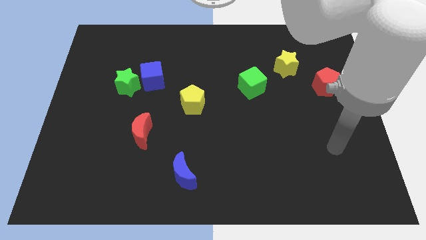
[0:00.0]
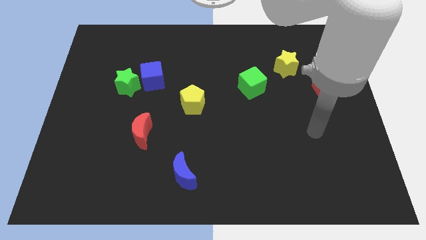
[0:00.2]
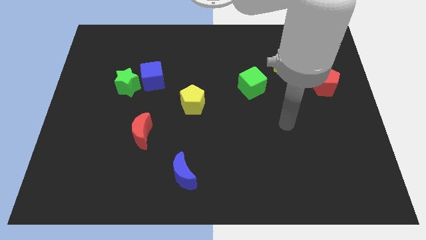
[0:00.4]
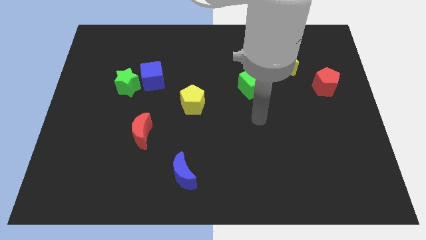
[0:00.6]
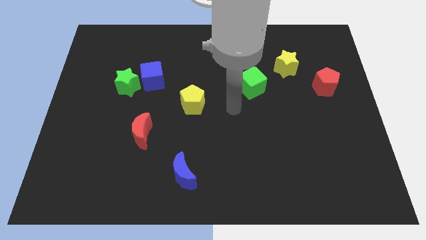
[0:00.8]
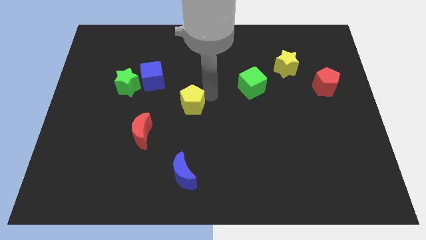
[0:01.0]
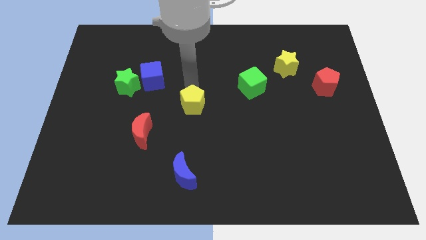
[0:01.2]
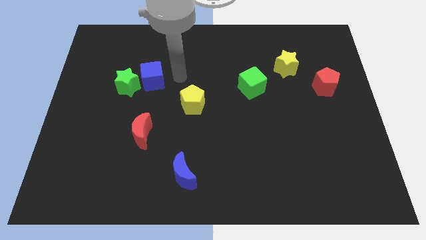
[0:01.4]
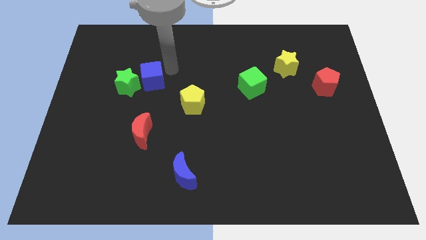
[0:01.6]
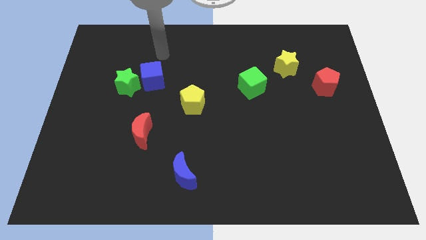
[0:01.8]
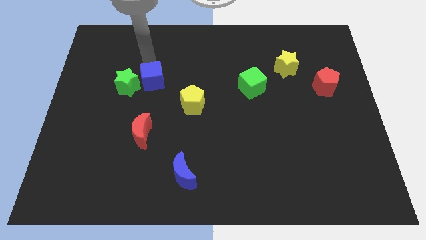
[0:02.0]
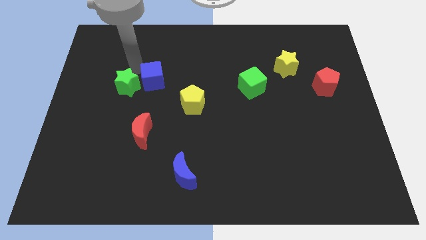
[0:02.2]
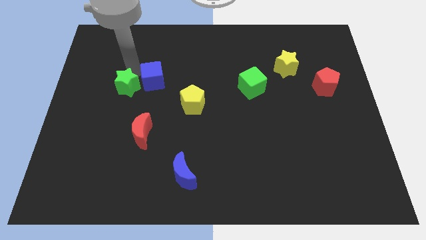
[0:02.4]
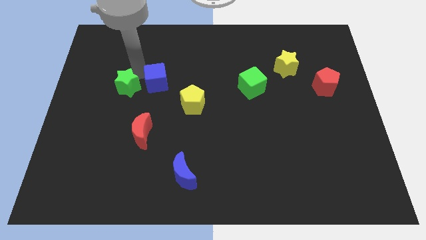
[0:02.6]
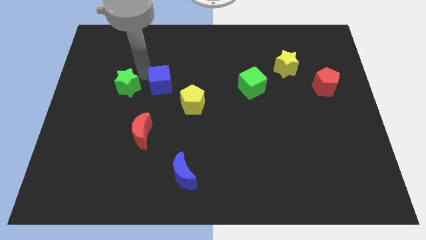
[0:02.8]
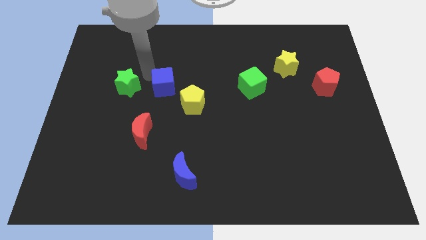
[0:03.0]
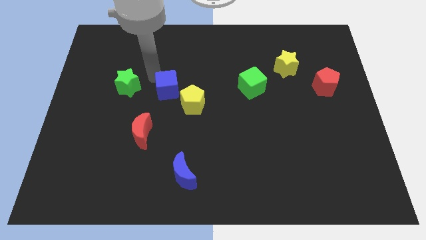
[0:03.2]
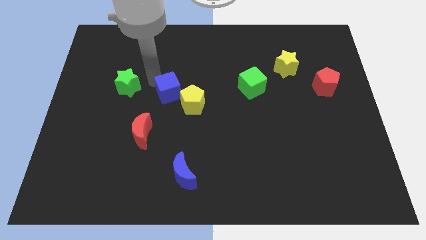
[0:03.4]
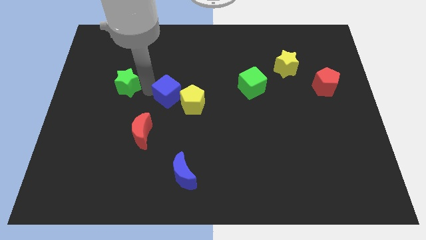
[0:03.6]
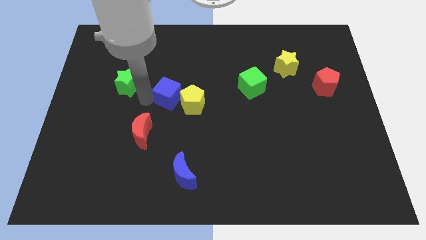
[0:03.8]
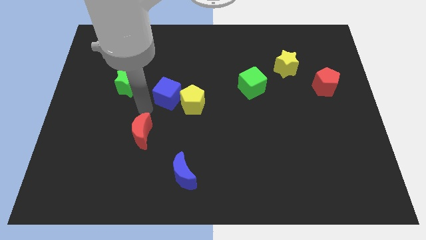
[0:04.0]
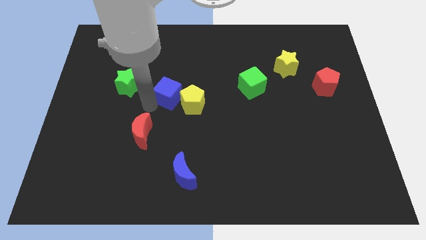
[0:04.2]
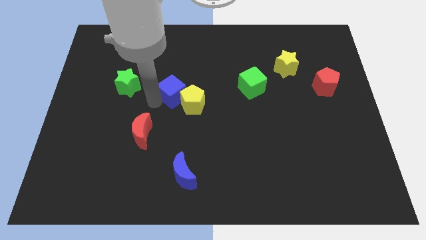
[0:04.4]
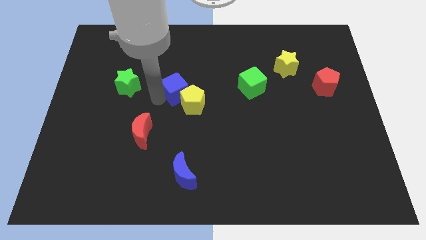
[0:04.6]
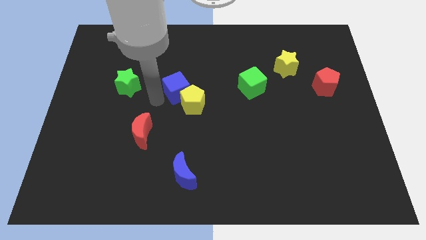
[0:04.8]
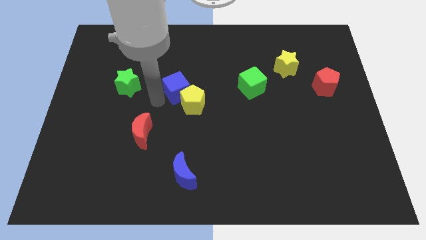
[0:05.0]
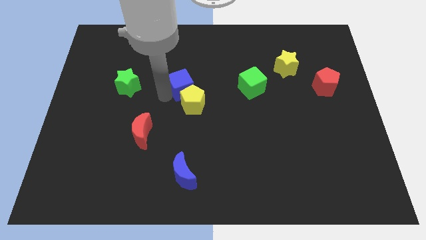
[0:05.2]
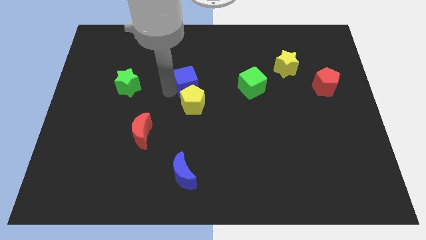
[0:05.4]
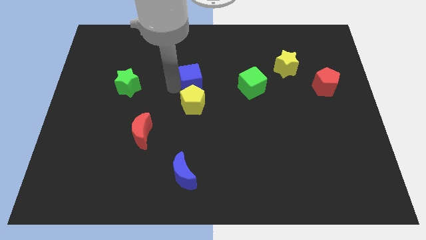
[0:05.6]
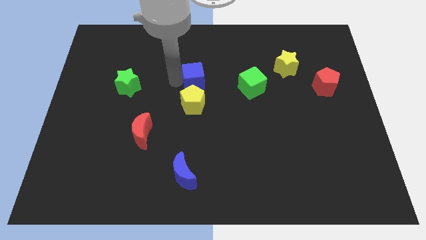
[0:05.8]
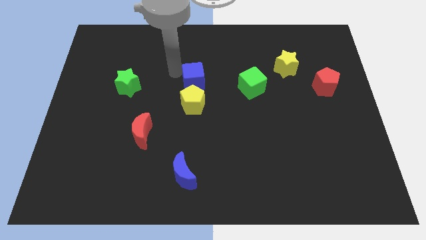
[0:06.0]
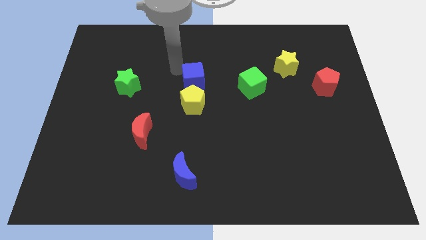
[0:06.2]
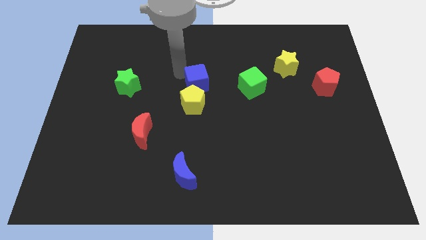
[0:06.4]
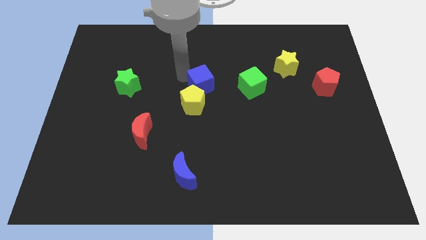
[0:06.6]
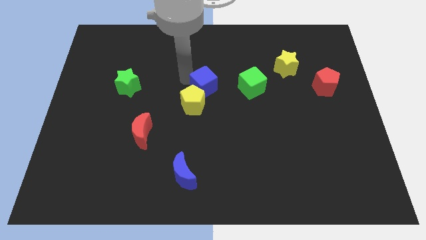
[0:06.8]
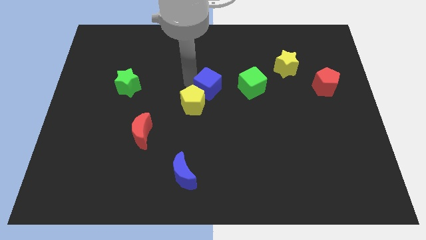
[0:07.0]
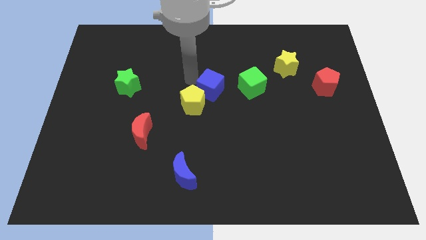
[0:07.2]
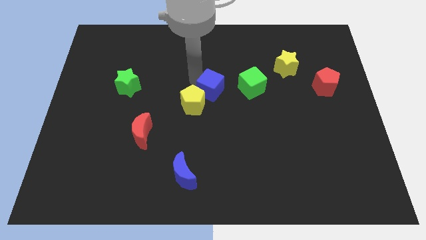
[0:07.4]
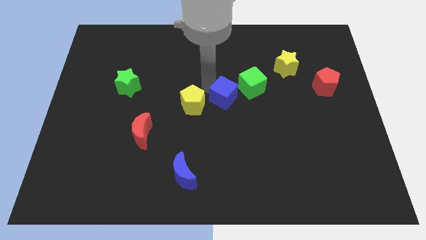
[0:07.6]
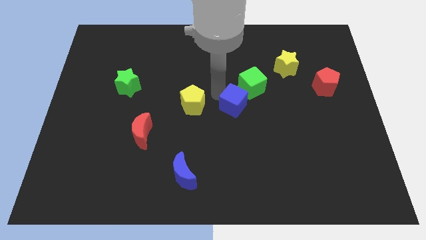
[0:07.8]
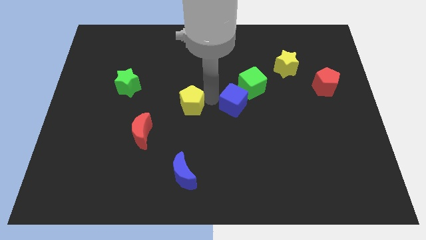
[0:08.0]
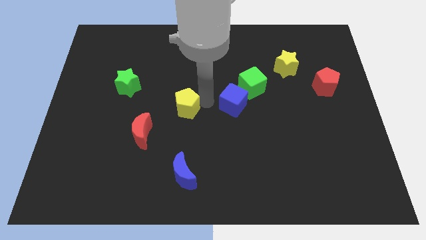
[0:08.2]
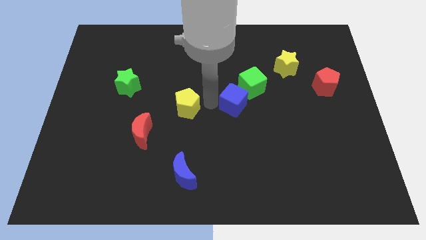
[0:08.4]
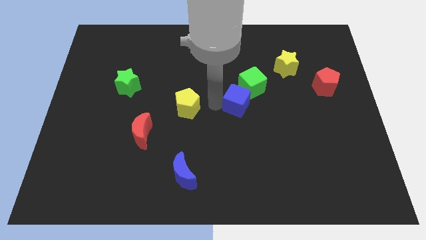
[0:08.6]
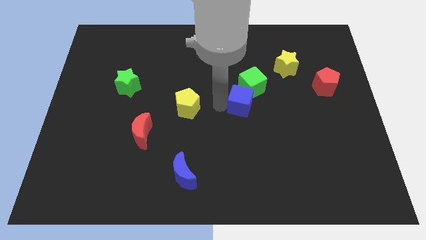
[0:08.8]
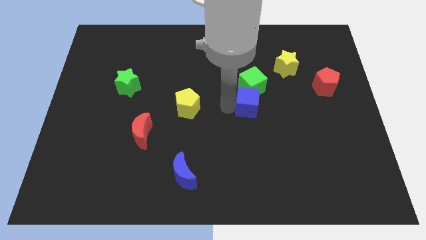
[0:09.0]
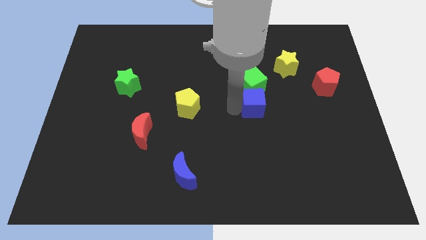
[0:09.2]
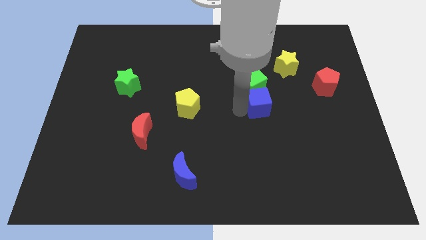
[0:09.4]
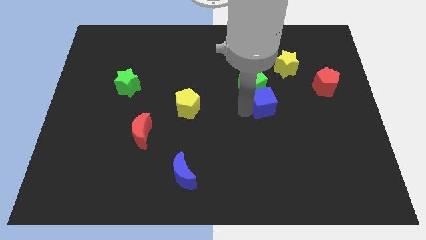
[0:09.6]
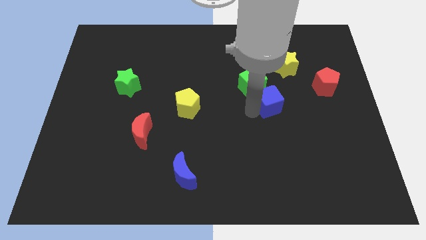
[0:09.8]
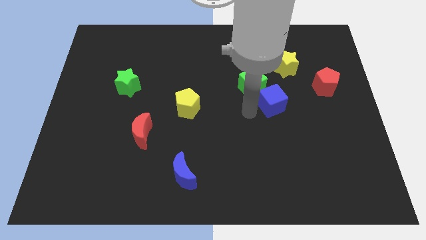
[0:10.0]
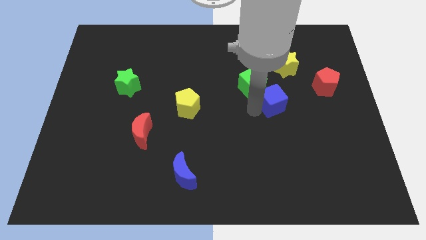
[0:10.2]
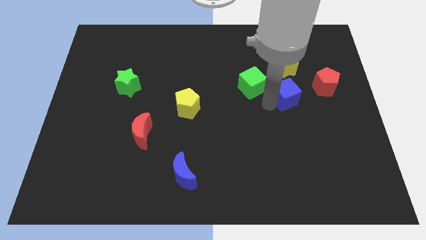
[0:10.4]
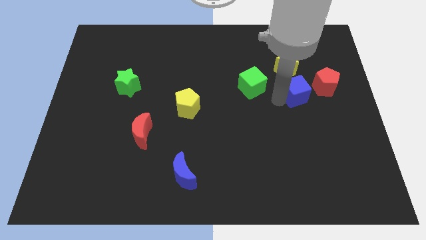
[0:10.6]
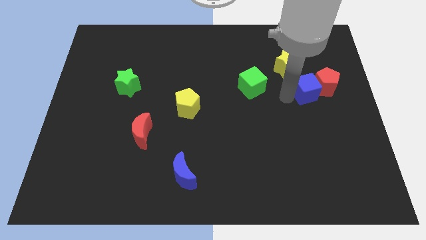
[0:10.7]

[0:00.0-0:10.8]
push the blue cube next to the red pentagon

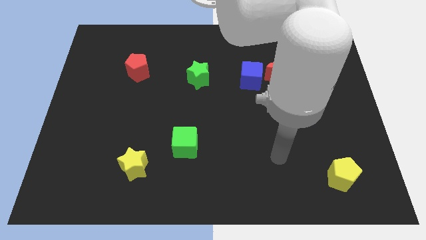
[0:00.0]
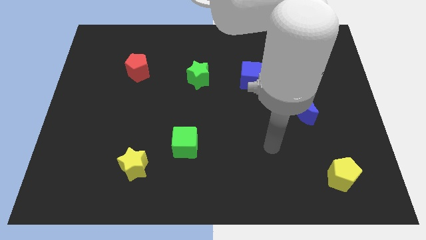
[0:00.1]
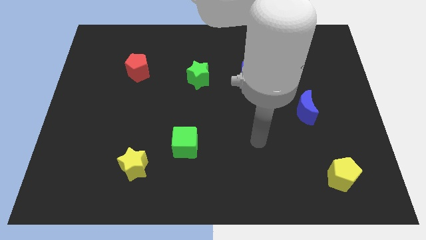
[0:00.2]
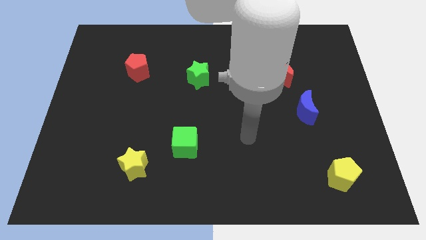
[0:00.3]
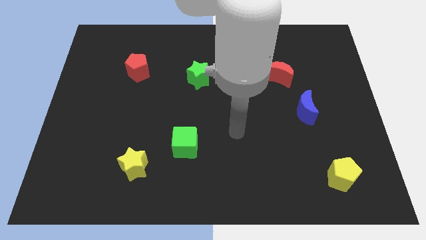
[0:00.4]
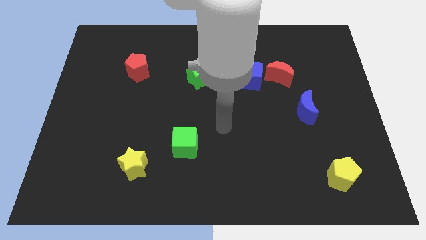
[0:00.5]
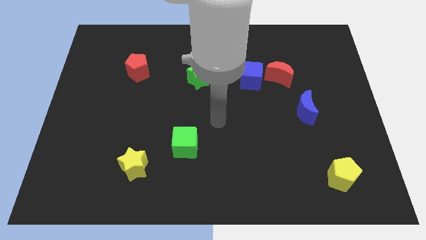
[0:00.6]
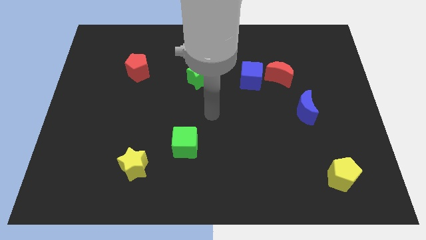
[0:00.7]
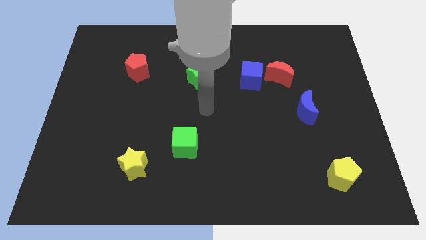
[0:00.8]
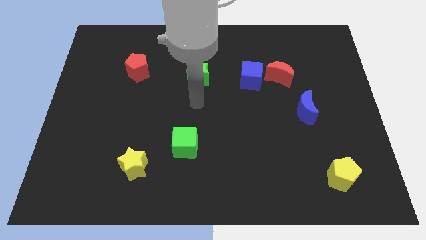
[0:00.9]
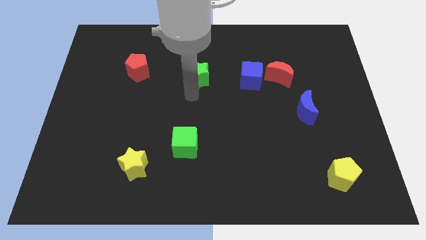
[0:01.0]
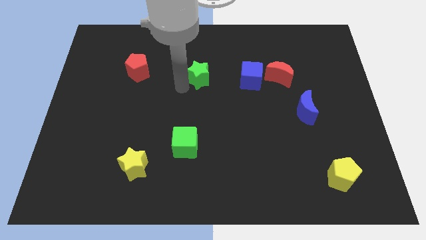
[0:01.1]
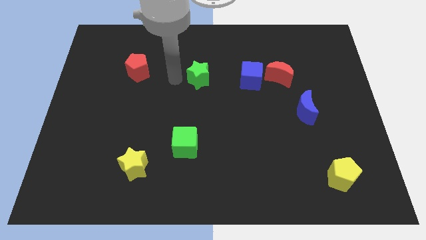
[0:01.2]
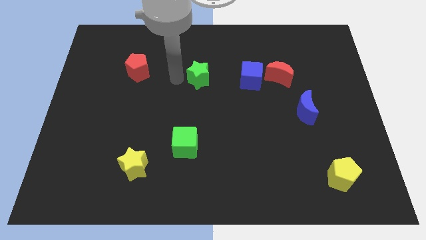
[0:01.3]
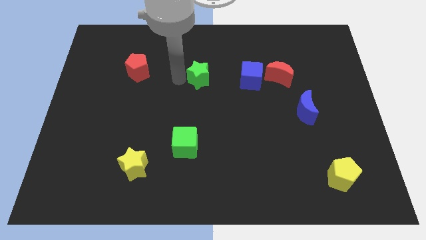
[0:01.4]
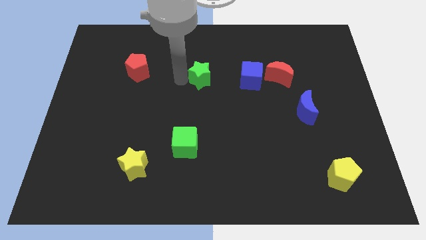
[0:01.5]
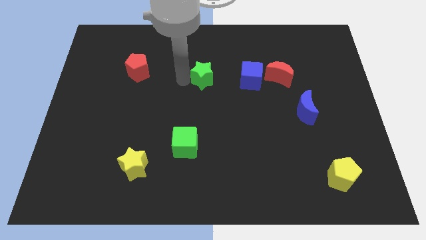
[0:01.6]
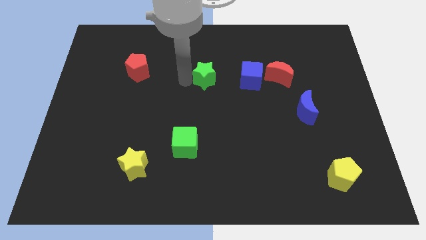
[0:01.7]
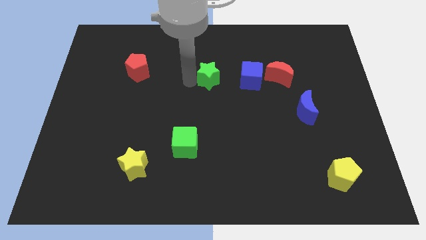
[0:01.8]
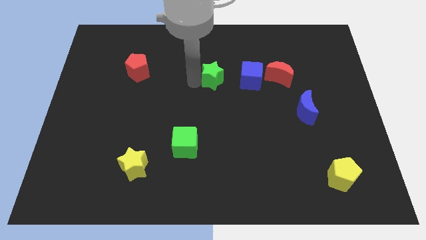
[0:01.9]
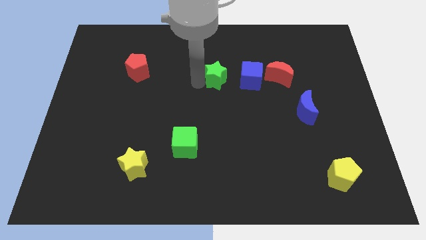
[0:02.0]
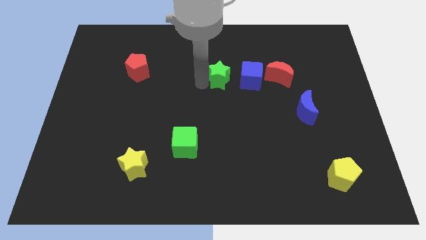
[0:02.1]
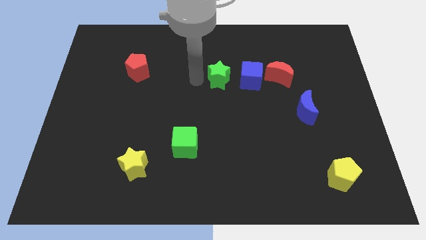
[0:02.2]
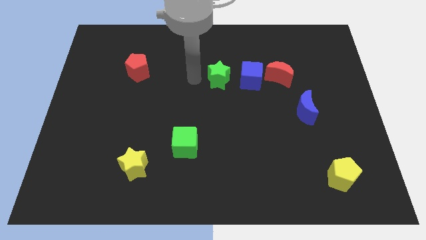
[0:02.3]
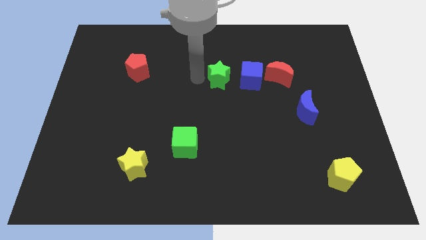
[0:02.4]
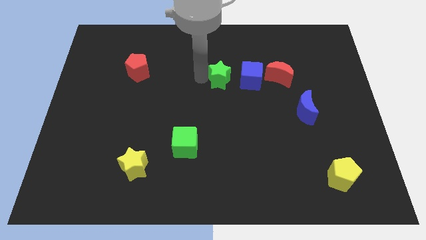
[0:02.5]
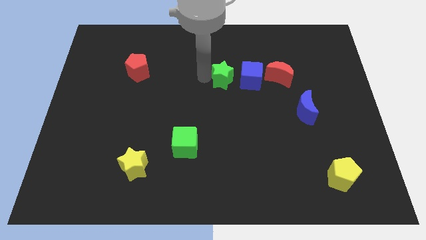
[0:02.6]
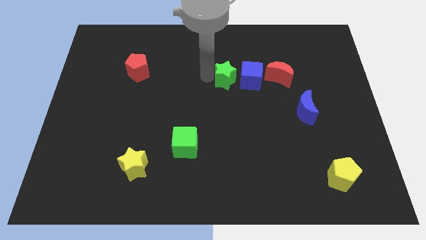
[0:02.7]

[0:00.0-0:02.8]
push the green star to the blue cube
